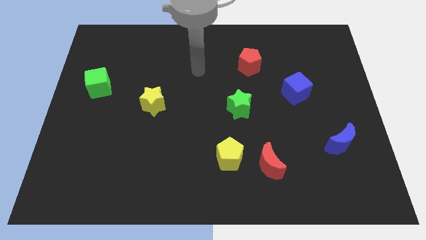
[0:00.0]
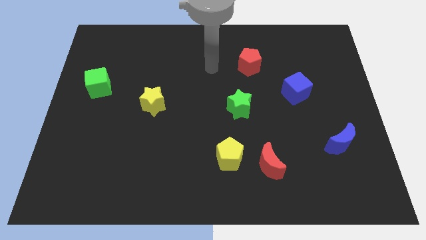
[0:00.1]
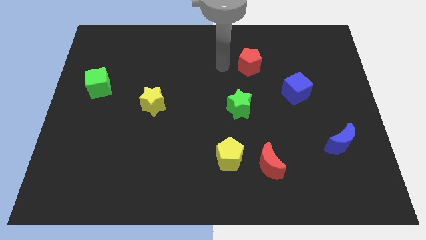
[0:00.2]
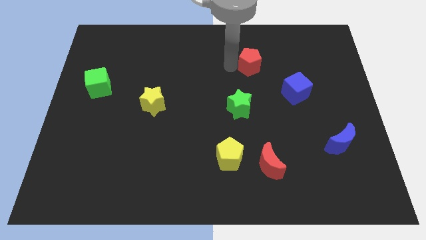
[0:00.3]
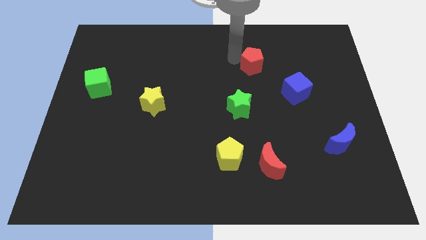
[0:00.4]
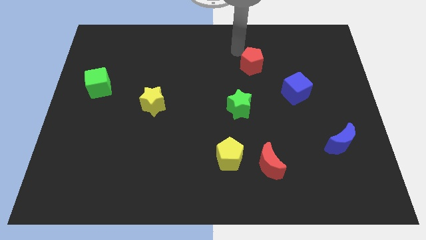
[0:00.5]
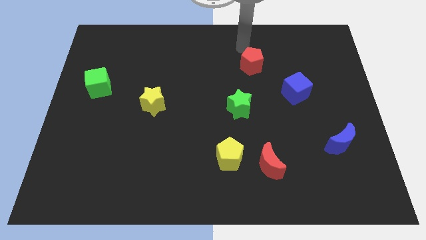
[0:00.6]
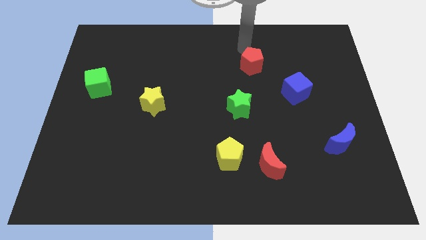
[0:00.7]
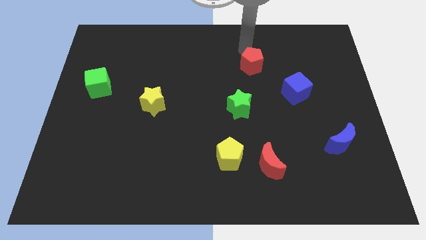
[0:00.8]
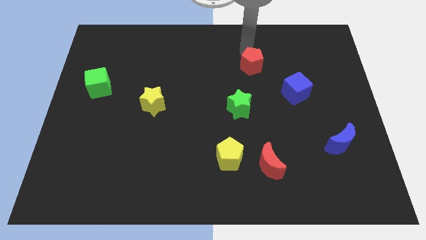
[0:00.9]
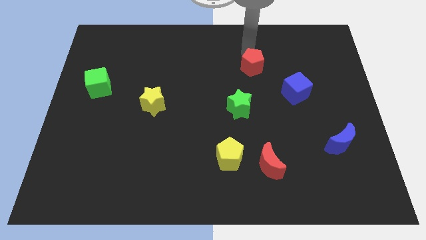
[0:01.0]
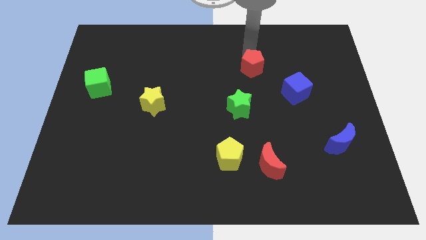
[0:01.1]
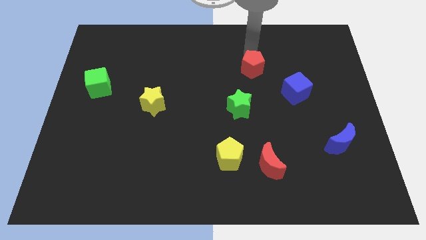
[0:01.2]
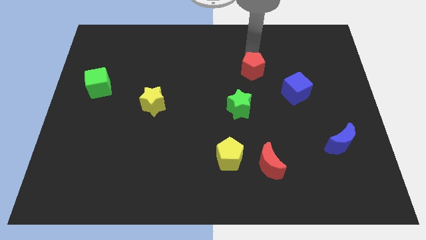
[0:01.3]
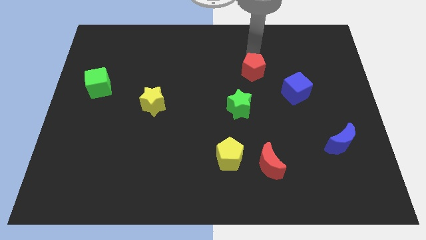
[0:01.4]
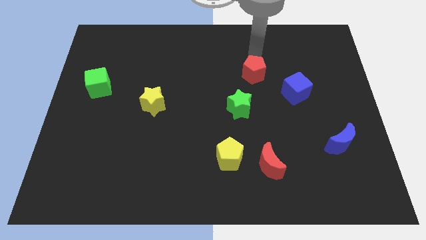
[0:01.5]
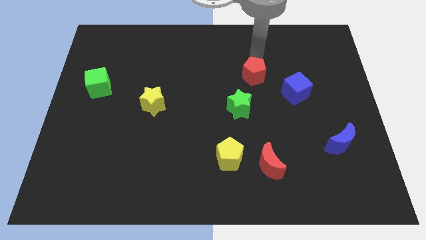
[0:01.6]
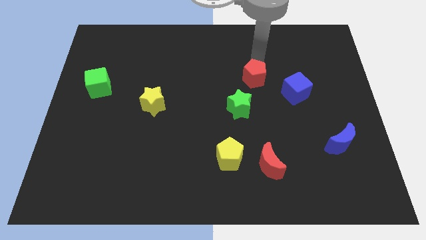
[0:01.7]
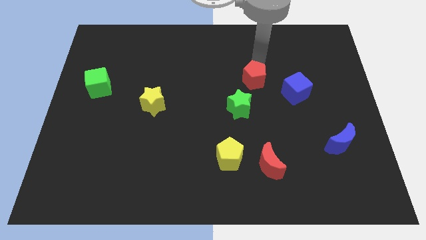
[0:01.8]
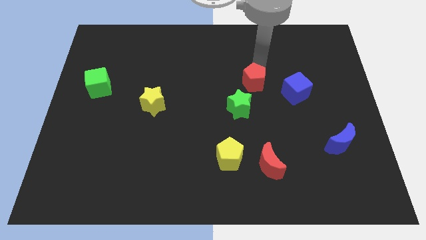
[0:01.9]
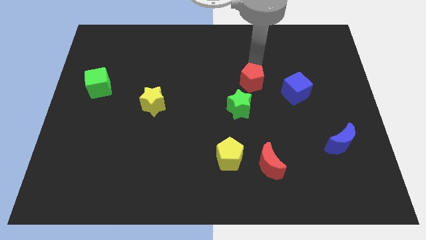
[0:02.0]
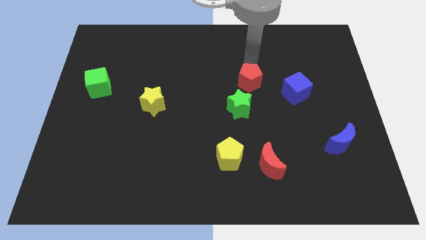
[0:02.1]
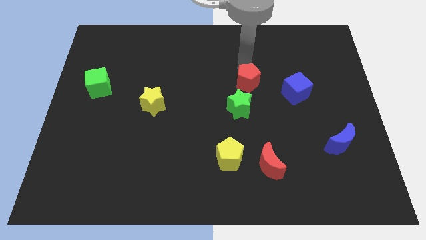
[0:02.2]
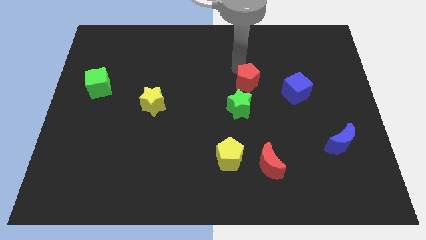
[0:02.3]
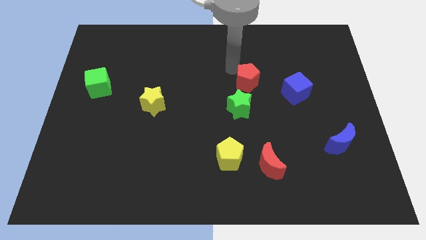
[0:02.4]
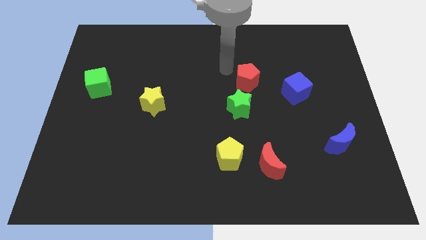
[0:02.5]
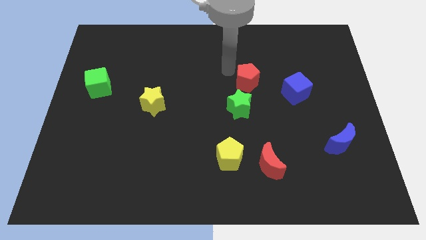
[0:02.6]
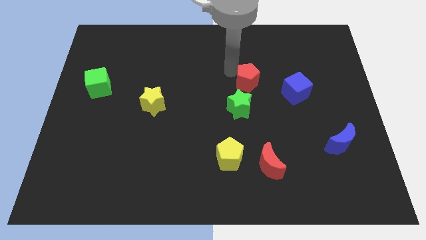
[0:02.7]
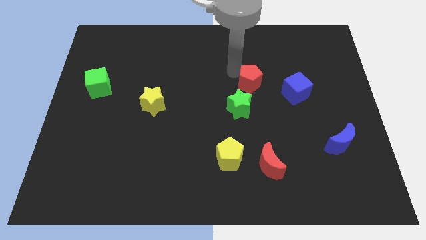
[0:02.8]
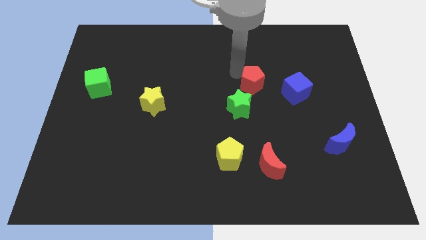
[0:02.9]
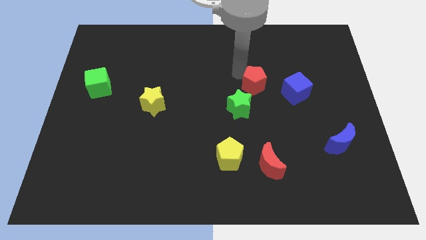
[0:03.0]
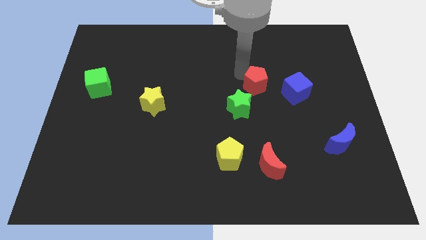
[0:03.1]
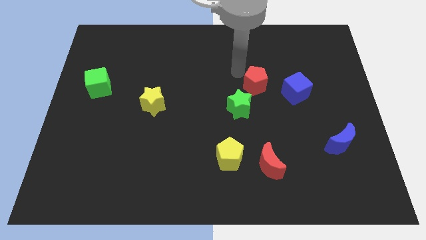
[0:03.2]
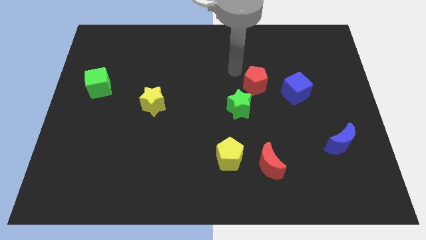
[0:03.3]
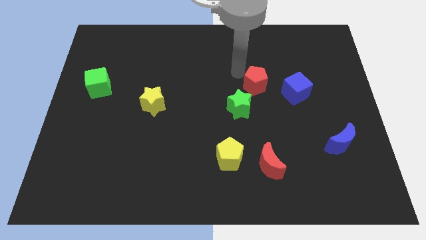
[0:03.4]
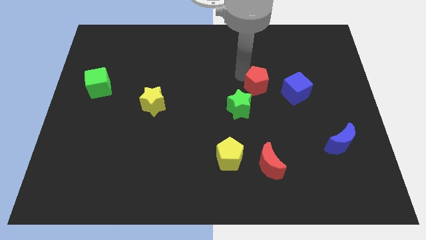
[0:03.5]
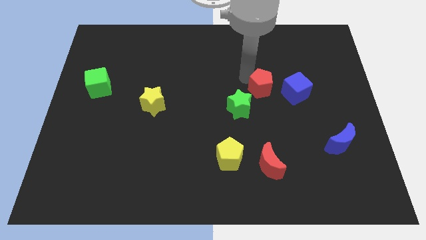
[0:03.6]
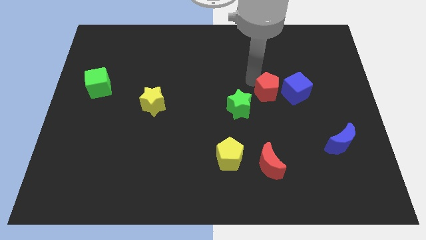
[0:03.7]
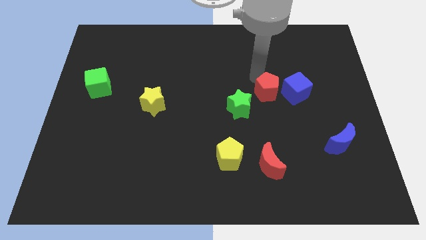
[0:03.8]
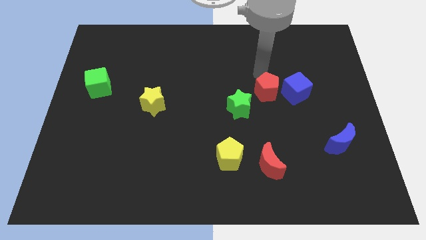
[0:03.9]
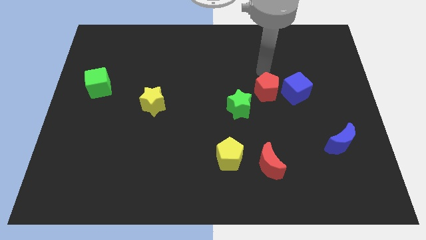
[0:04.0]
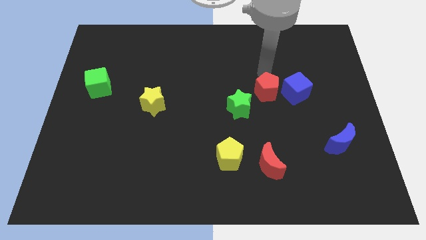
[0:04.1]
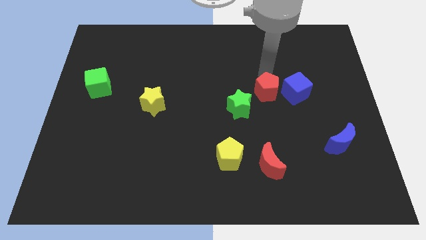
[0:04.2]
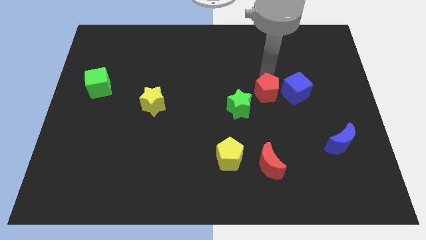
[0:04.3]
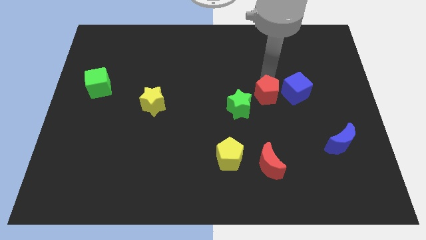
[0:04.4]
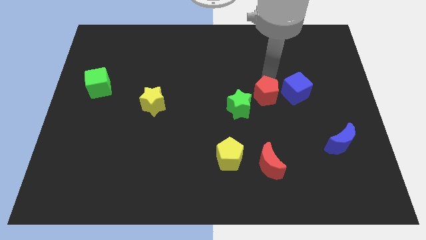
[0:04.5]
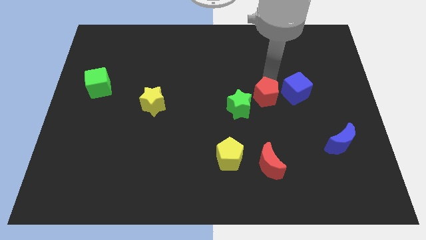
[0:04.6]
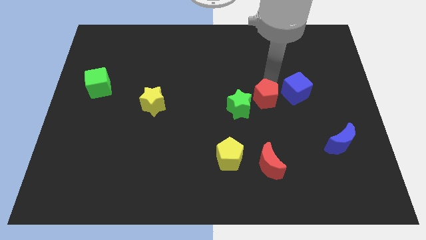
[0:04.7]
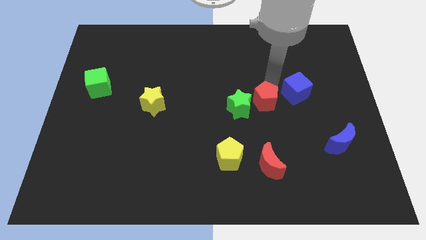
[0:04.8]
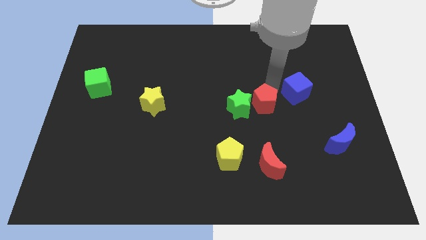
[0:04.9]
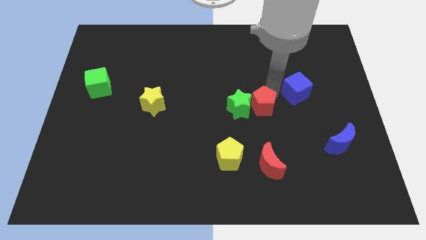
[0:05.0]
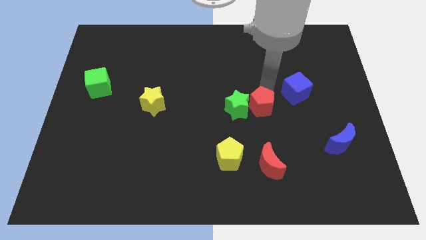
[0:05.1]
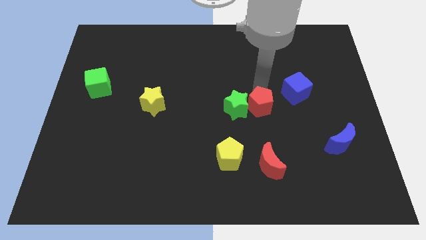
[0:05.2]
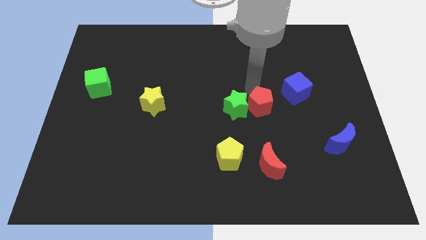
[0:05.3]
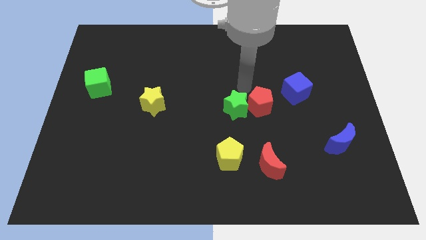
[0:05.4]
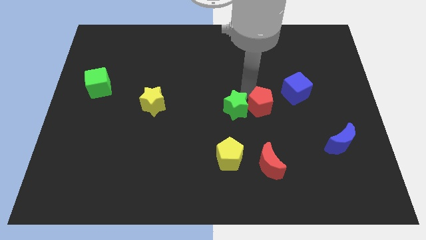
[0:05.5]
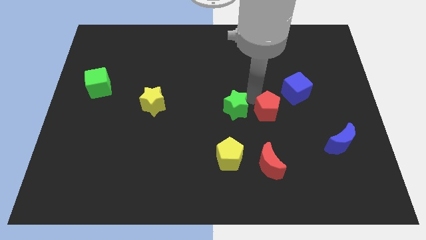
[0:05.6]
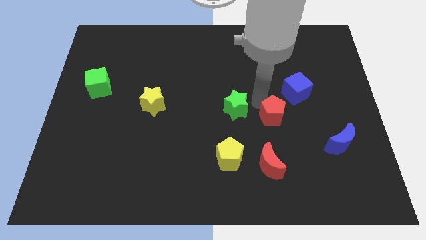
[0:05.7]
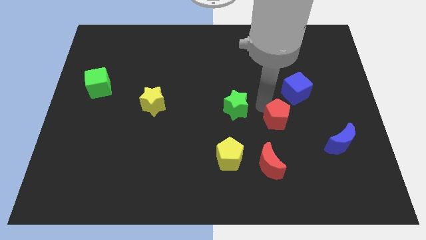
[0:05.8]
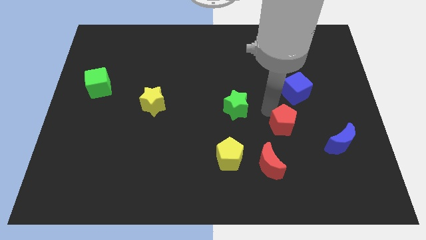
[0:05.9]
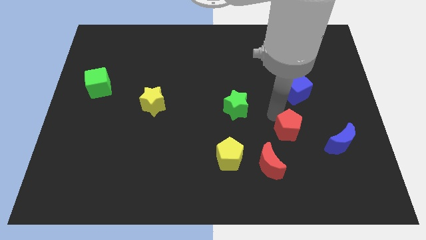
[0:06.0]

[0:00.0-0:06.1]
slide the red pentagon to the top right side of the red moon

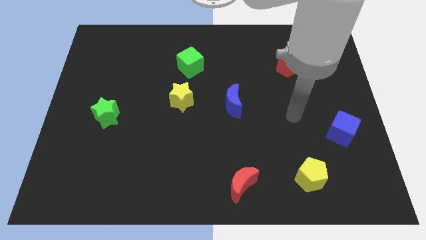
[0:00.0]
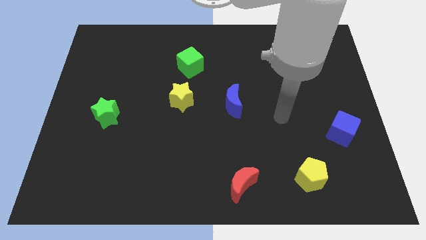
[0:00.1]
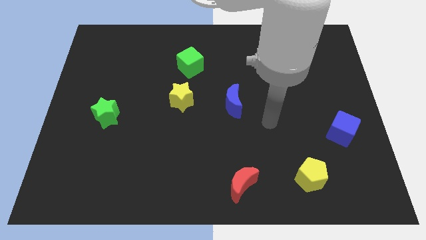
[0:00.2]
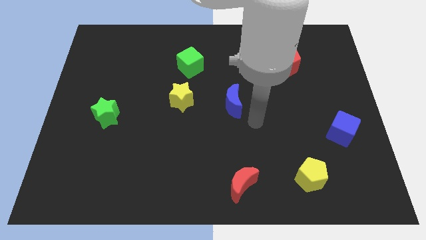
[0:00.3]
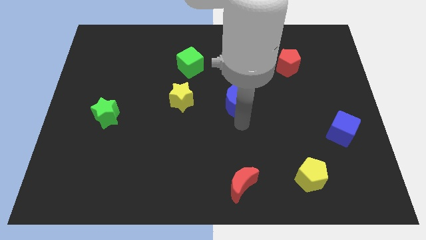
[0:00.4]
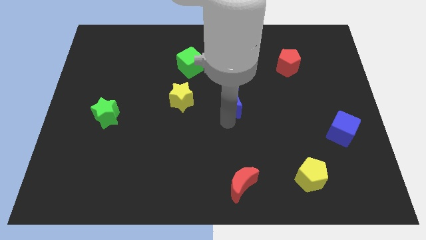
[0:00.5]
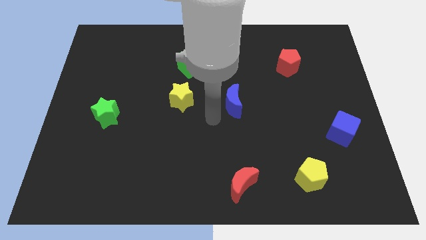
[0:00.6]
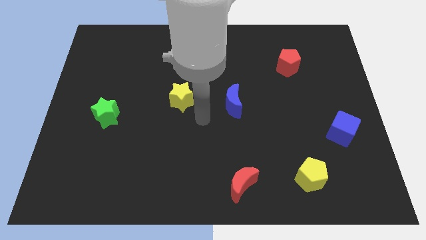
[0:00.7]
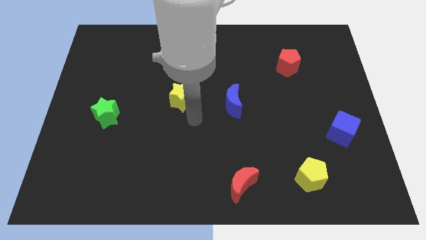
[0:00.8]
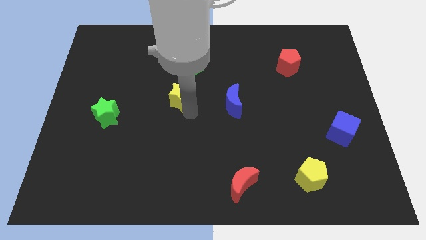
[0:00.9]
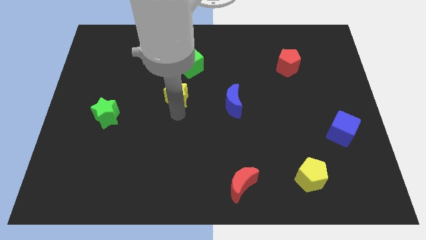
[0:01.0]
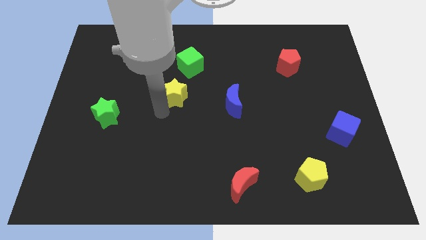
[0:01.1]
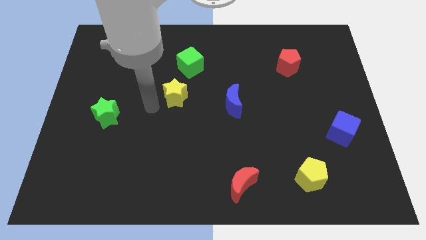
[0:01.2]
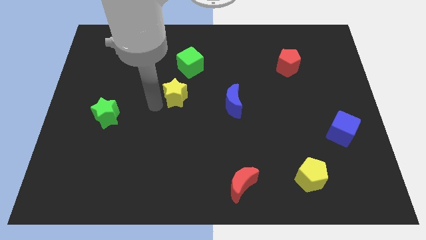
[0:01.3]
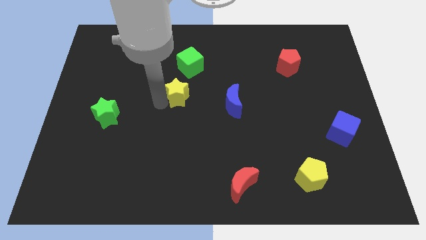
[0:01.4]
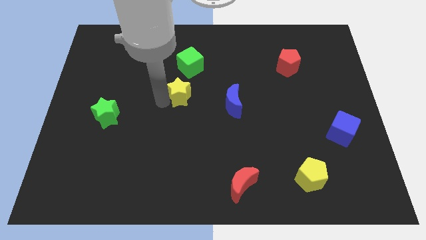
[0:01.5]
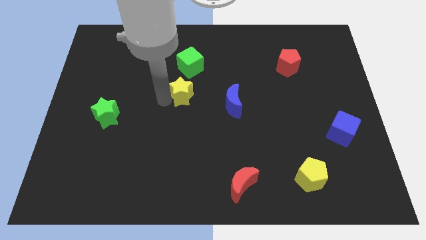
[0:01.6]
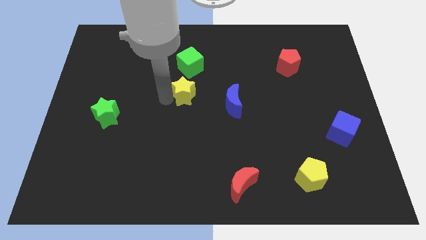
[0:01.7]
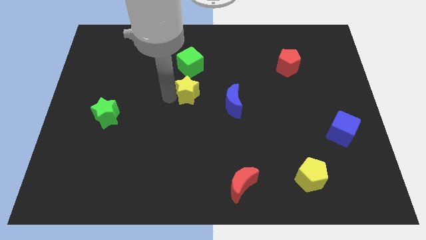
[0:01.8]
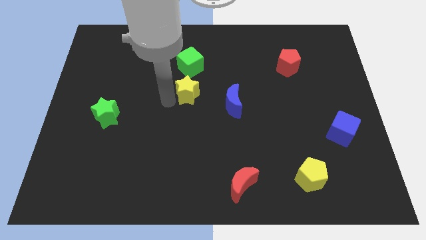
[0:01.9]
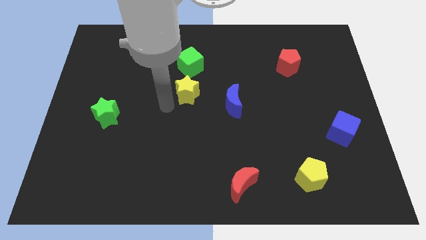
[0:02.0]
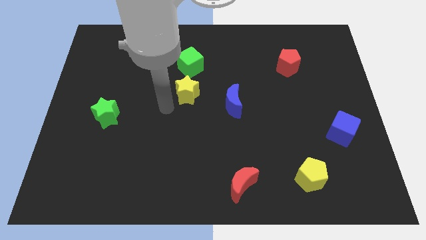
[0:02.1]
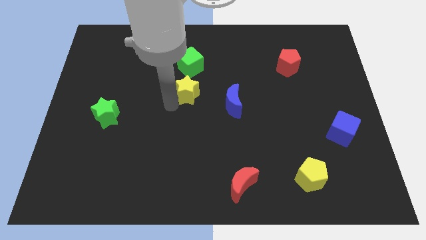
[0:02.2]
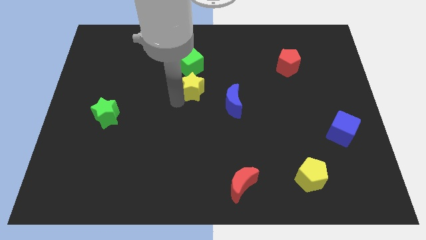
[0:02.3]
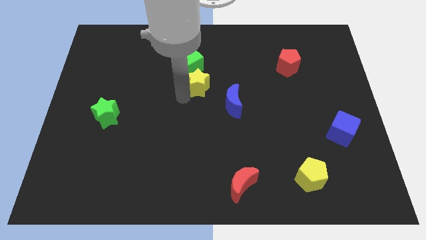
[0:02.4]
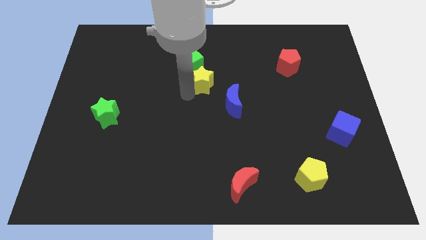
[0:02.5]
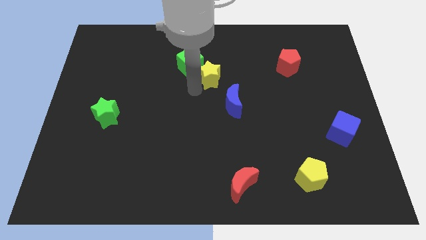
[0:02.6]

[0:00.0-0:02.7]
push the yellow star right of the green cube
